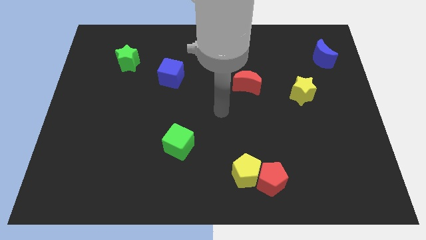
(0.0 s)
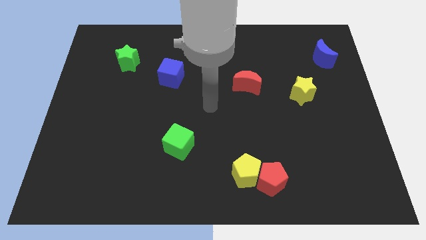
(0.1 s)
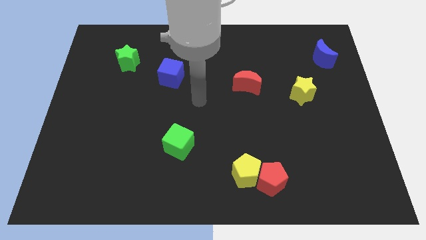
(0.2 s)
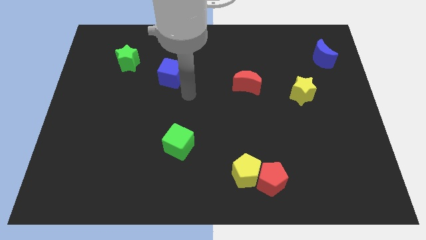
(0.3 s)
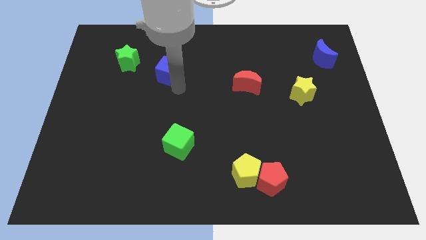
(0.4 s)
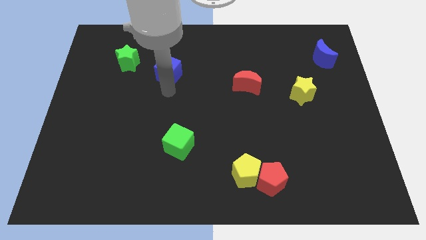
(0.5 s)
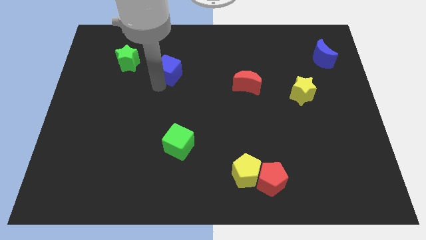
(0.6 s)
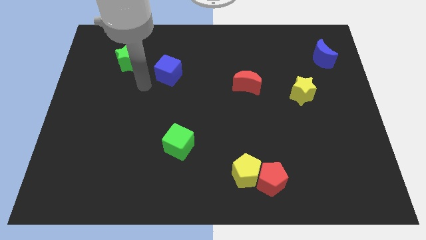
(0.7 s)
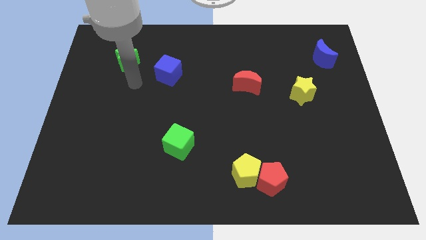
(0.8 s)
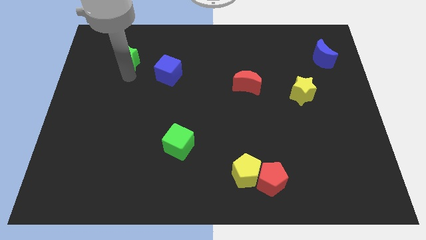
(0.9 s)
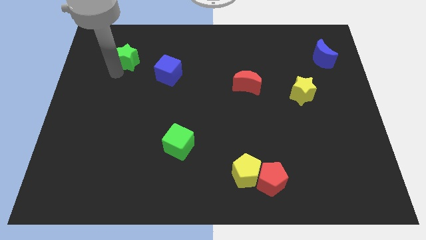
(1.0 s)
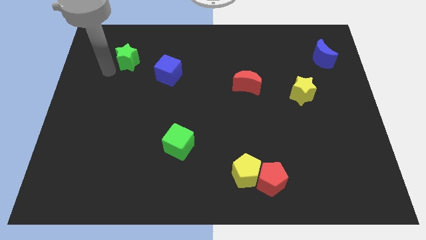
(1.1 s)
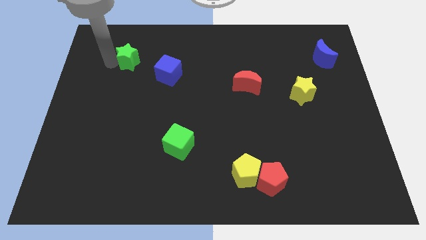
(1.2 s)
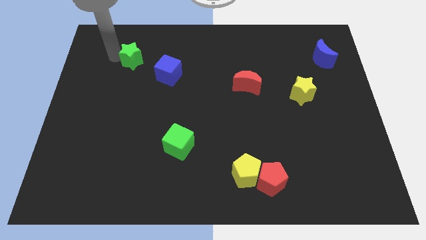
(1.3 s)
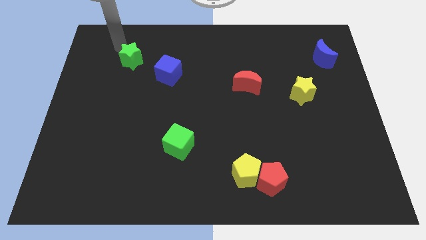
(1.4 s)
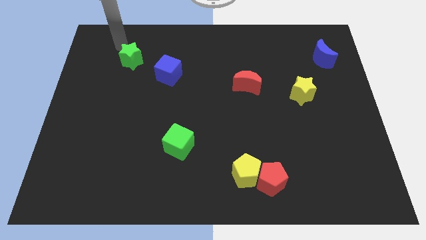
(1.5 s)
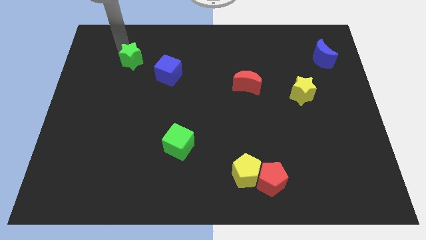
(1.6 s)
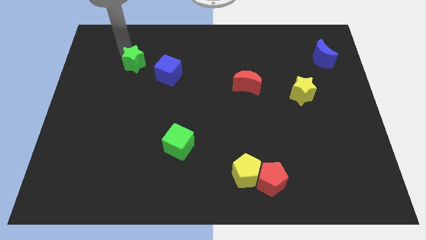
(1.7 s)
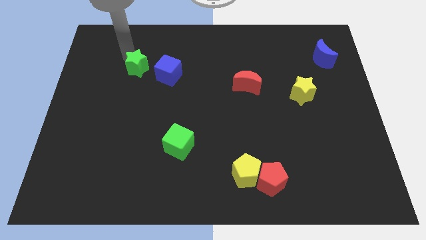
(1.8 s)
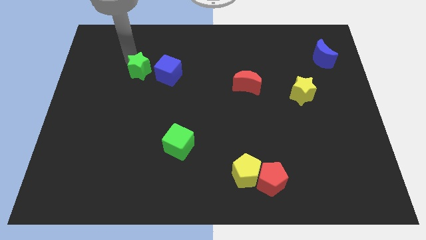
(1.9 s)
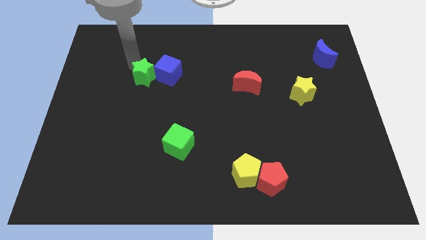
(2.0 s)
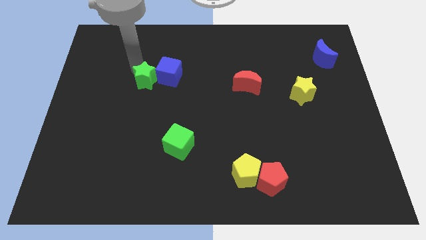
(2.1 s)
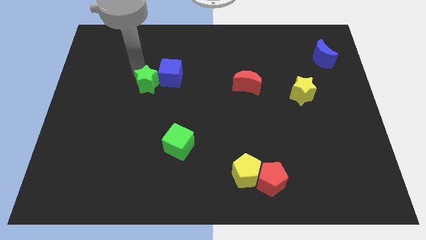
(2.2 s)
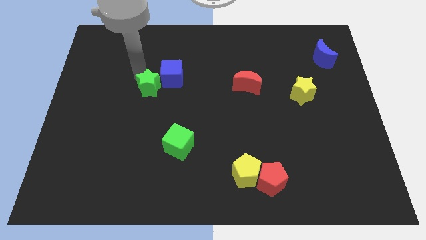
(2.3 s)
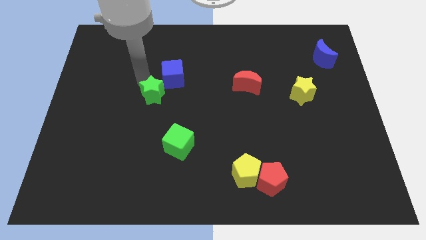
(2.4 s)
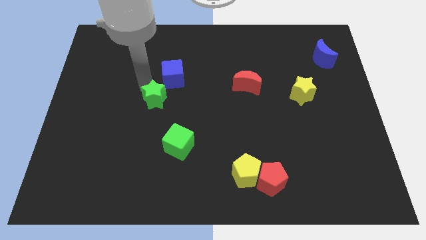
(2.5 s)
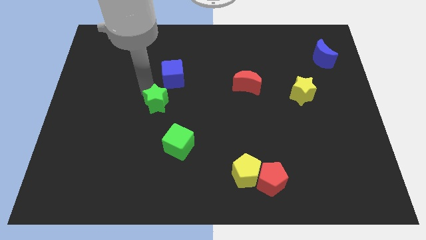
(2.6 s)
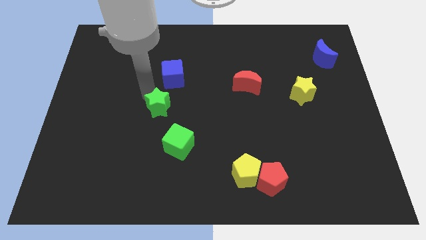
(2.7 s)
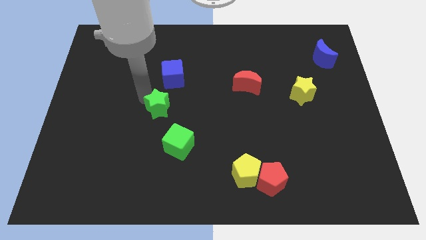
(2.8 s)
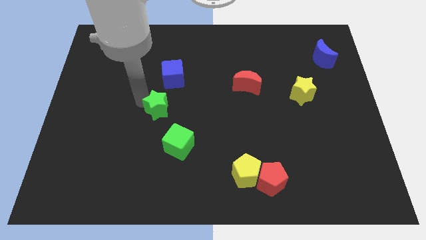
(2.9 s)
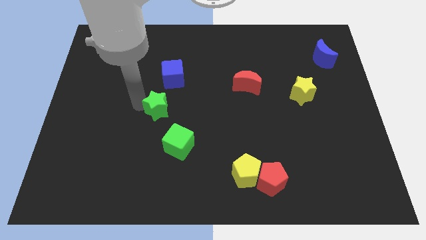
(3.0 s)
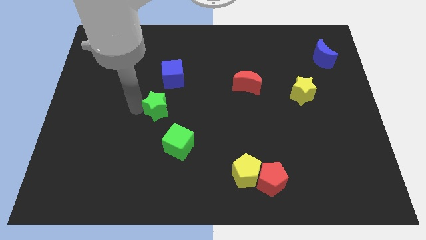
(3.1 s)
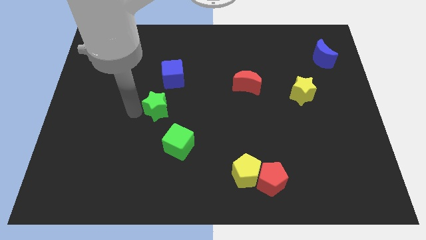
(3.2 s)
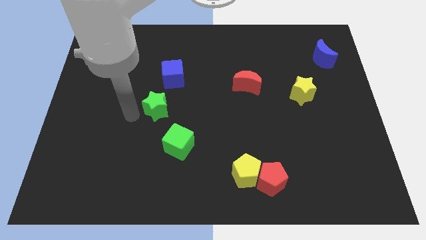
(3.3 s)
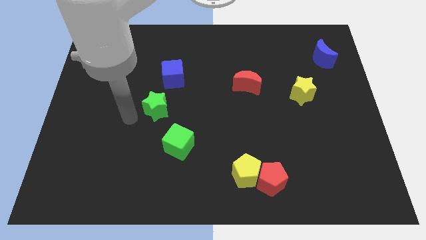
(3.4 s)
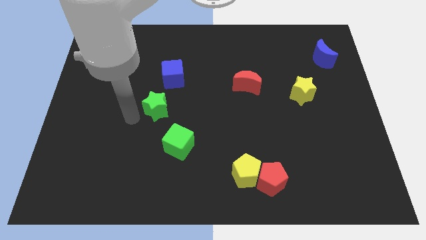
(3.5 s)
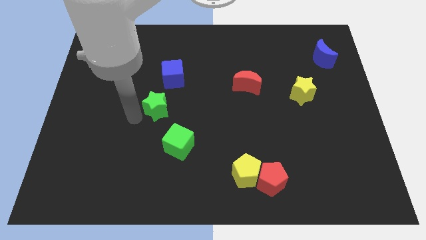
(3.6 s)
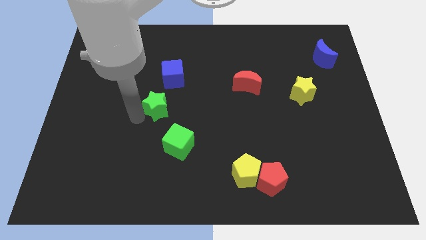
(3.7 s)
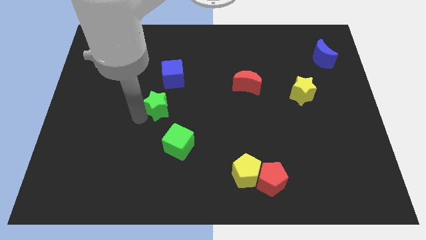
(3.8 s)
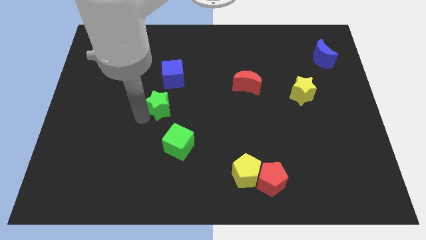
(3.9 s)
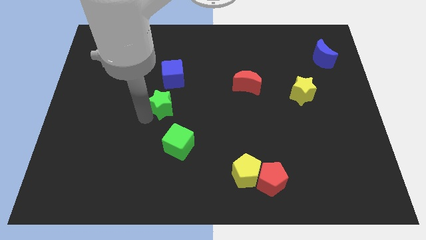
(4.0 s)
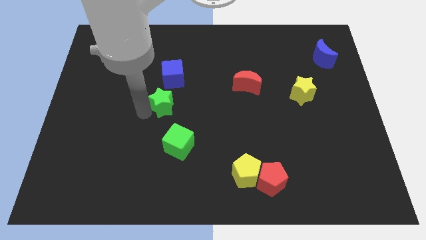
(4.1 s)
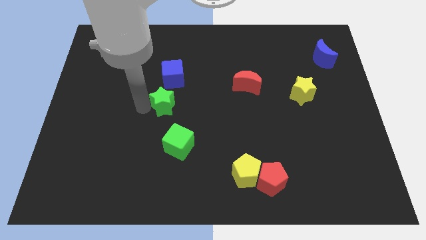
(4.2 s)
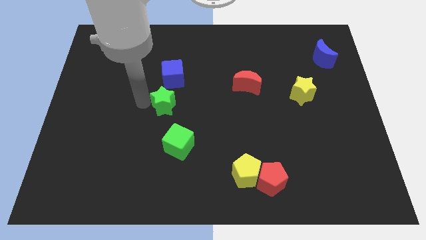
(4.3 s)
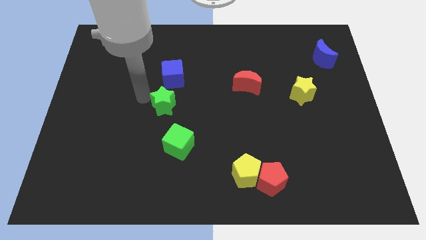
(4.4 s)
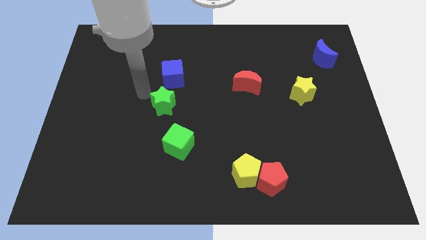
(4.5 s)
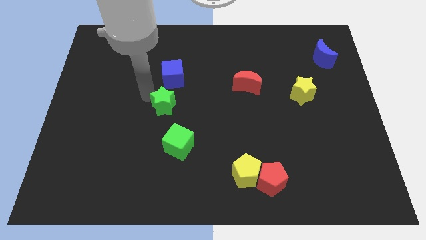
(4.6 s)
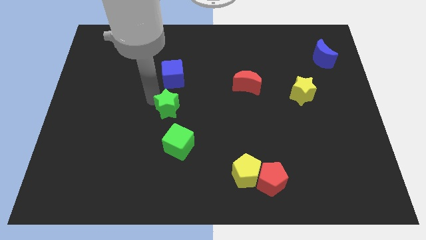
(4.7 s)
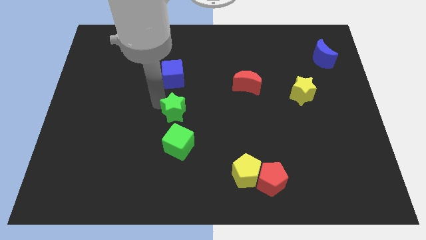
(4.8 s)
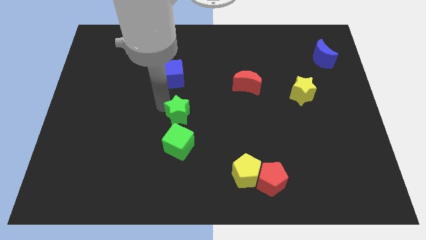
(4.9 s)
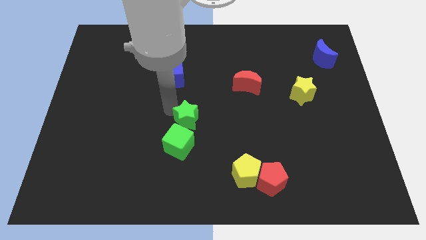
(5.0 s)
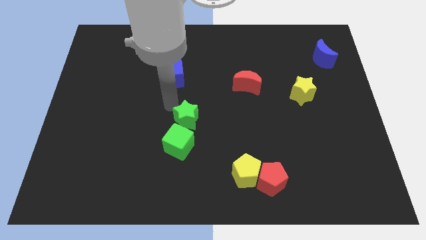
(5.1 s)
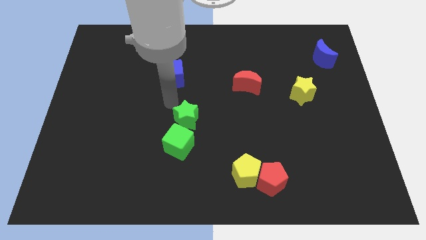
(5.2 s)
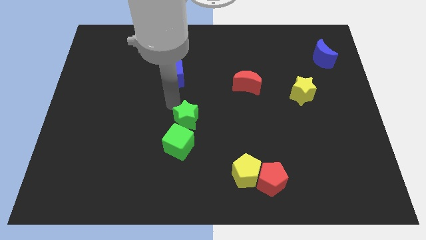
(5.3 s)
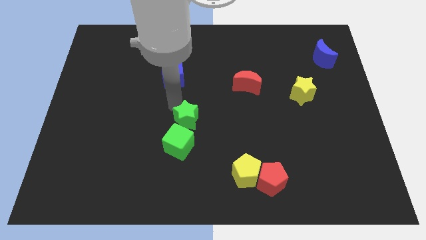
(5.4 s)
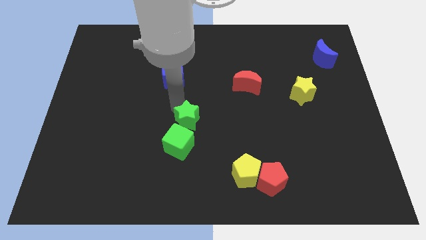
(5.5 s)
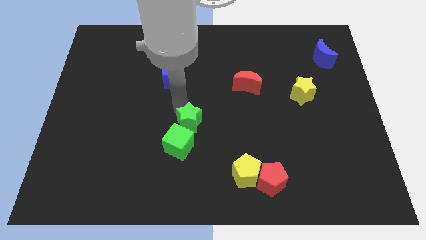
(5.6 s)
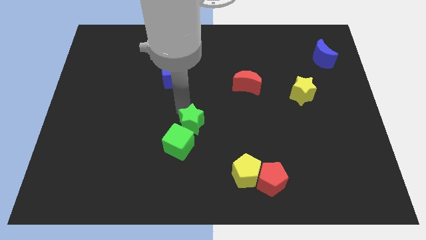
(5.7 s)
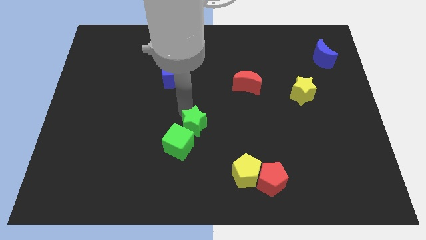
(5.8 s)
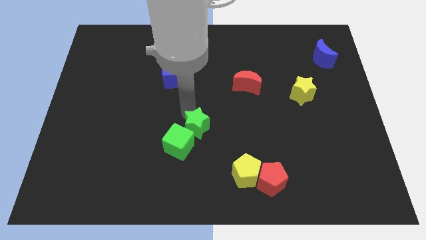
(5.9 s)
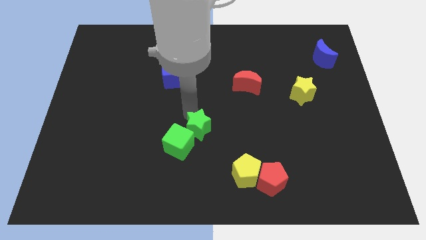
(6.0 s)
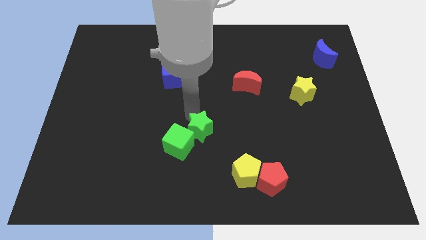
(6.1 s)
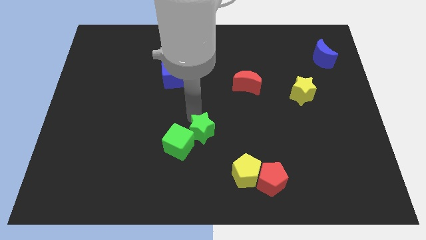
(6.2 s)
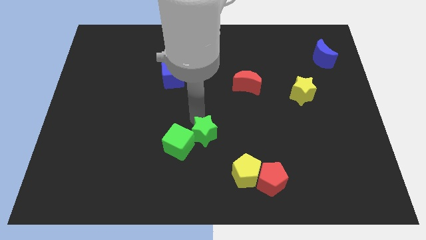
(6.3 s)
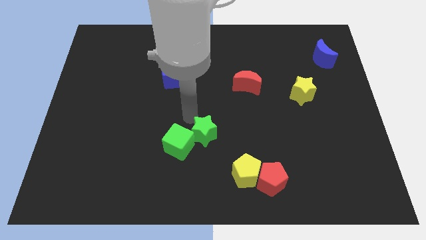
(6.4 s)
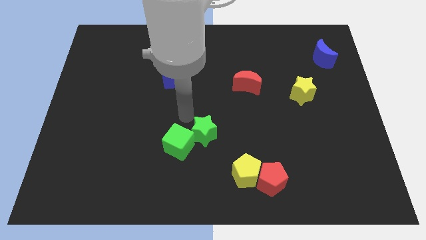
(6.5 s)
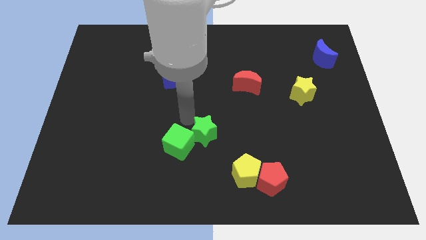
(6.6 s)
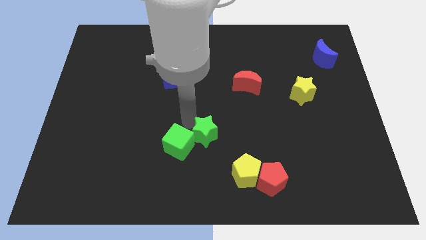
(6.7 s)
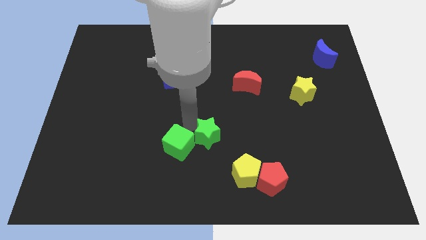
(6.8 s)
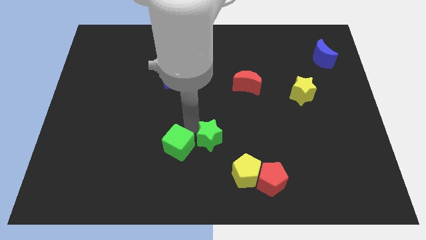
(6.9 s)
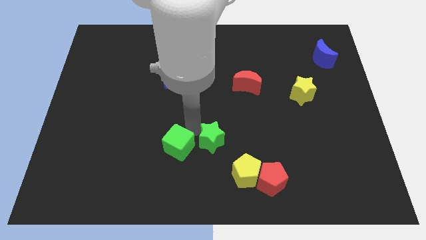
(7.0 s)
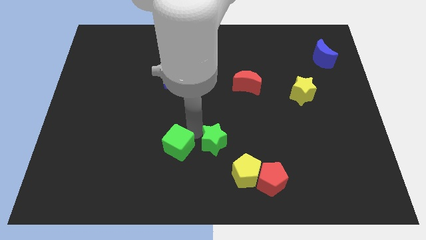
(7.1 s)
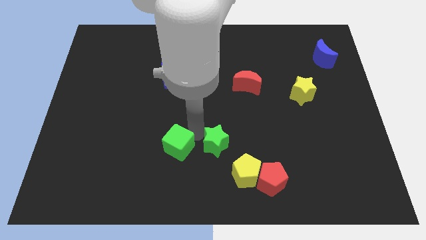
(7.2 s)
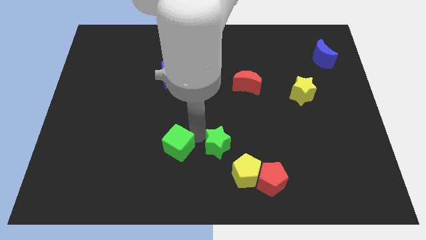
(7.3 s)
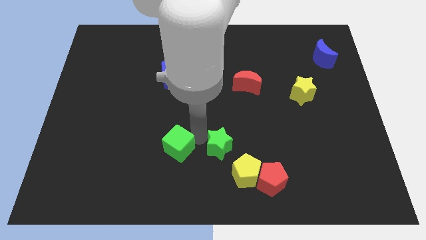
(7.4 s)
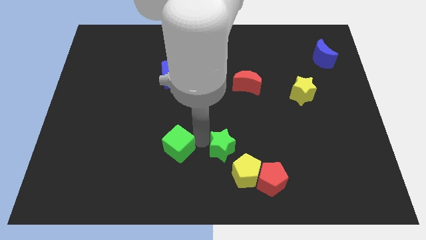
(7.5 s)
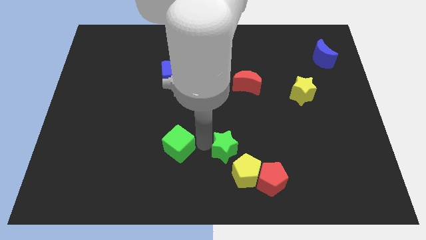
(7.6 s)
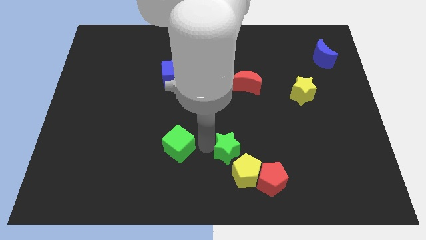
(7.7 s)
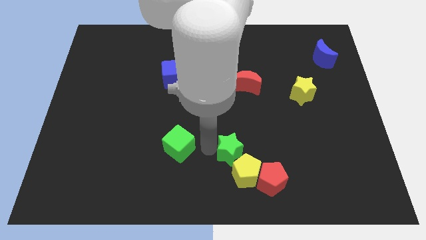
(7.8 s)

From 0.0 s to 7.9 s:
slide the green star close to the yellow pentagon
